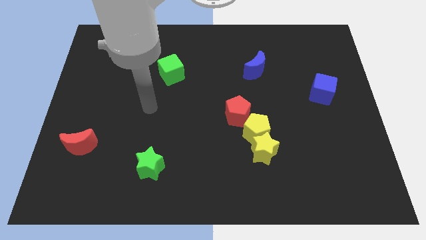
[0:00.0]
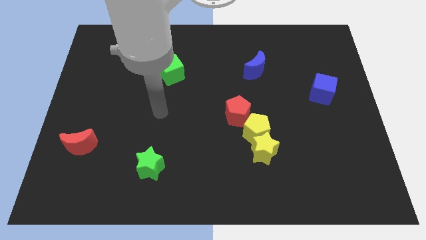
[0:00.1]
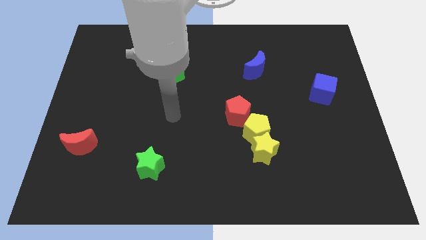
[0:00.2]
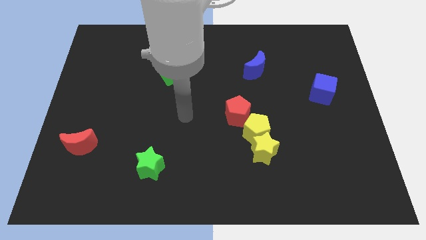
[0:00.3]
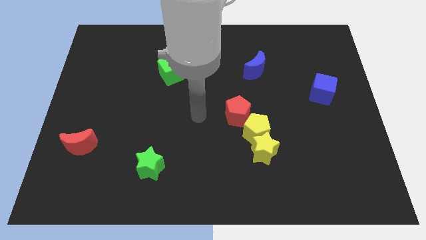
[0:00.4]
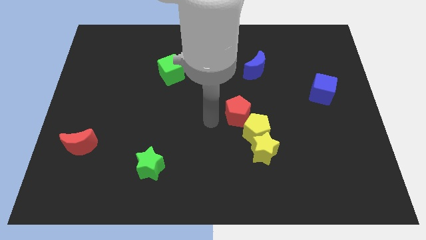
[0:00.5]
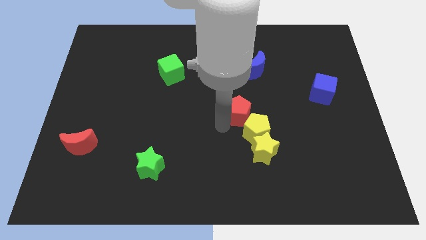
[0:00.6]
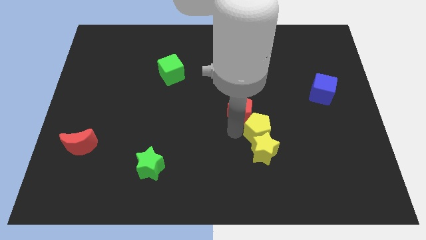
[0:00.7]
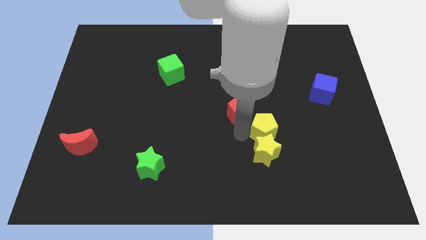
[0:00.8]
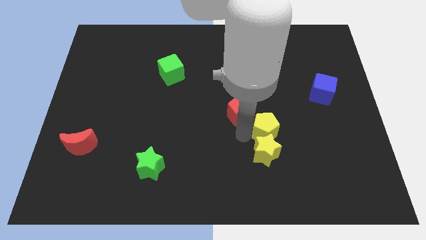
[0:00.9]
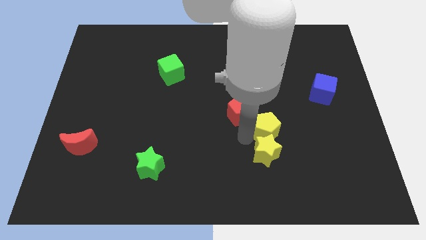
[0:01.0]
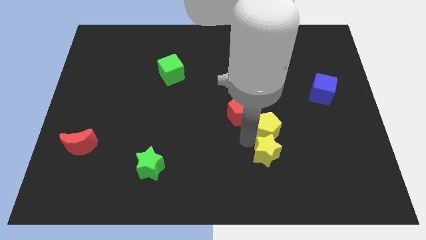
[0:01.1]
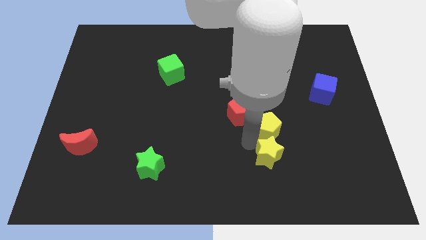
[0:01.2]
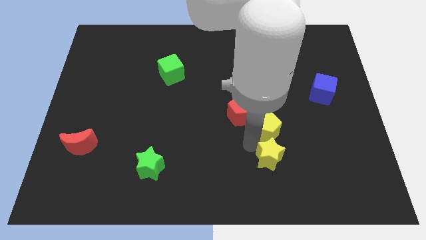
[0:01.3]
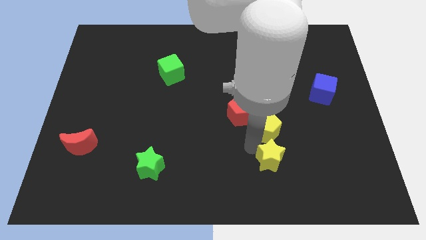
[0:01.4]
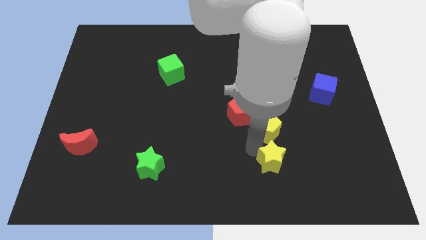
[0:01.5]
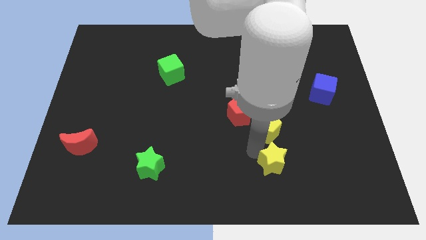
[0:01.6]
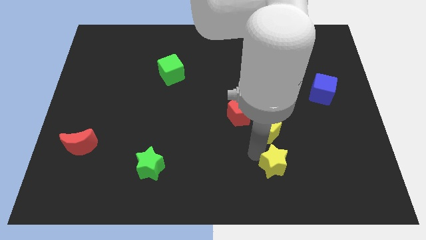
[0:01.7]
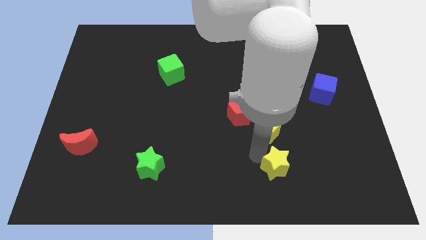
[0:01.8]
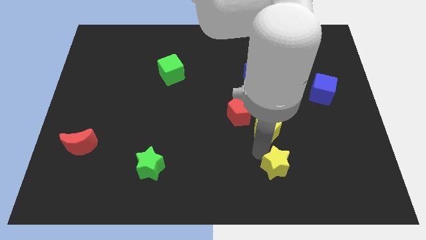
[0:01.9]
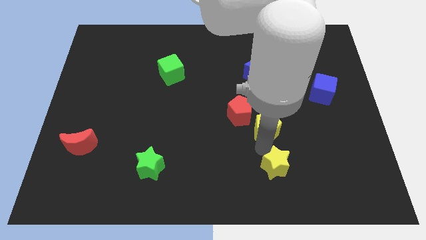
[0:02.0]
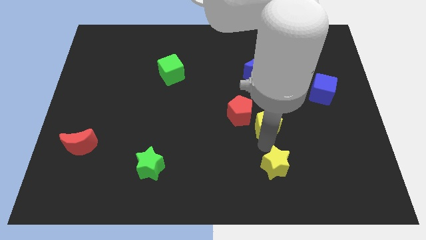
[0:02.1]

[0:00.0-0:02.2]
separate the yellow star from the yellow pentagon

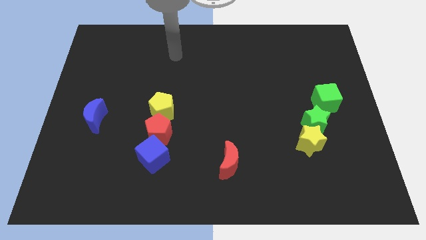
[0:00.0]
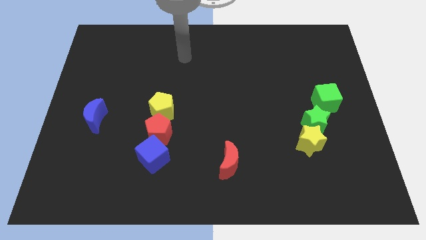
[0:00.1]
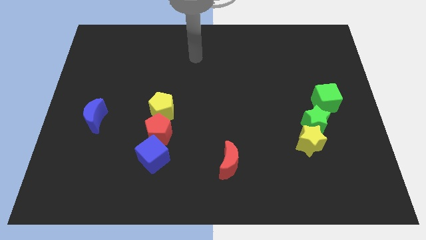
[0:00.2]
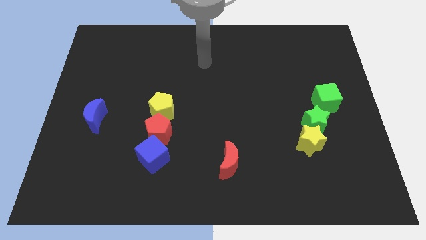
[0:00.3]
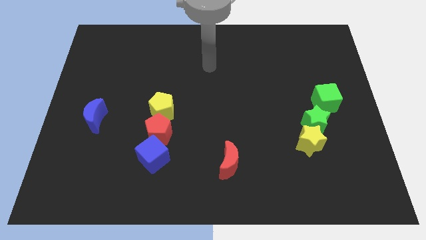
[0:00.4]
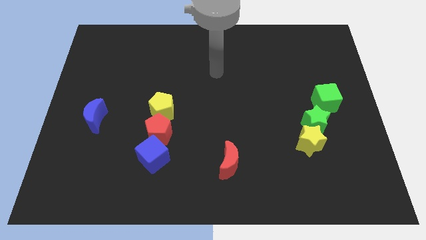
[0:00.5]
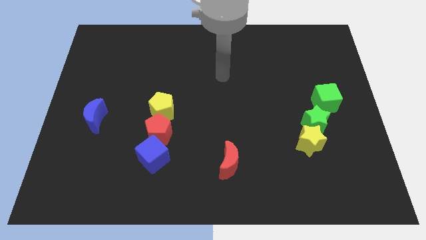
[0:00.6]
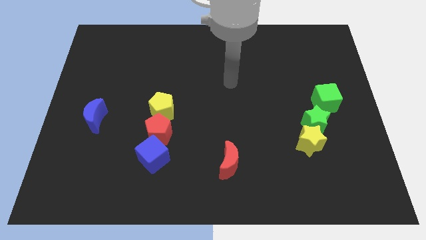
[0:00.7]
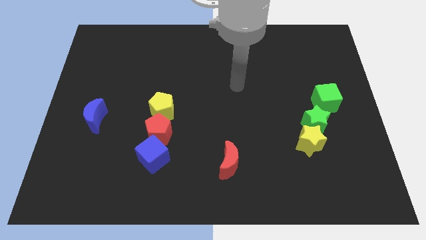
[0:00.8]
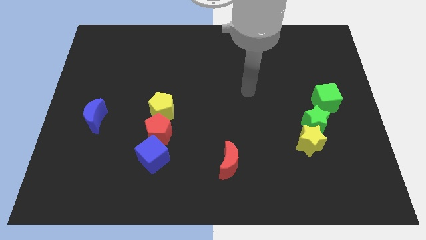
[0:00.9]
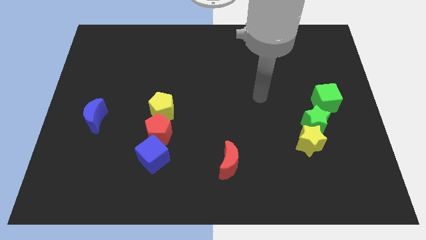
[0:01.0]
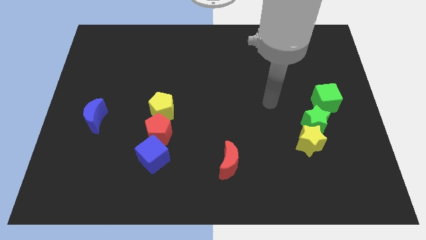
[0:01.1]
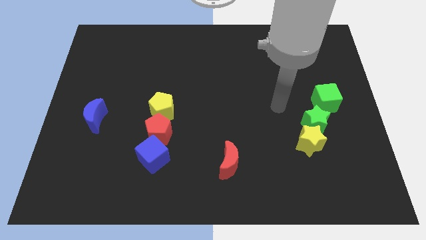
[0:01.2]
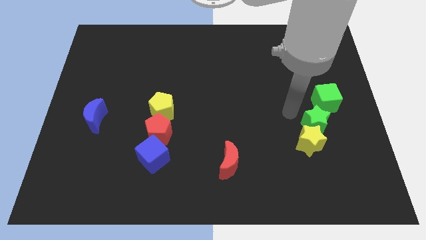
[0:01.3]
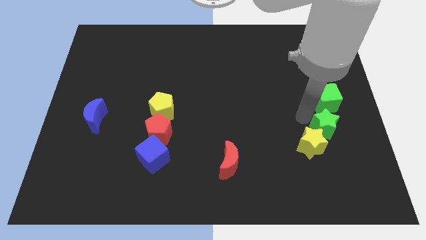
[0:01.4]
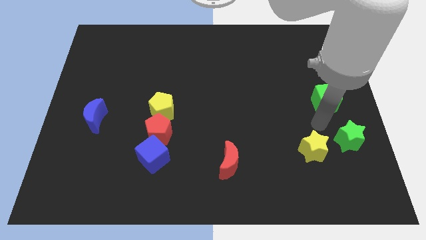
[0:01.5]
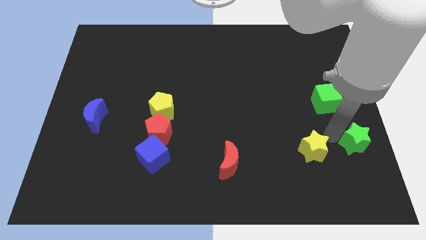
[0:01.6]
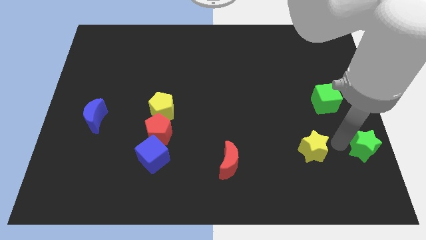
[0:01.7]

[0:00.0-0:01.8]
pull the yellow star apart from the green star

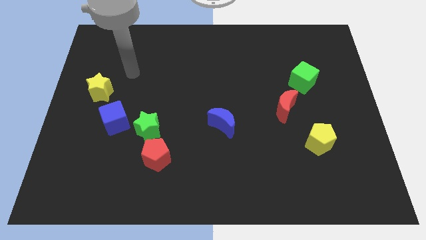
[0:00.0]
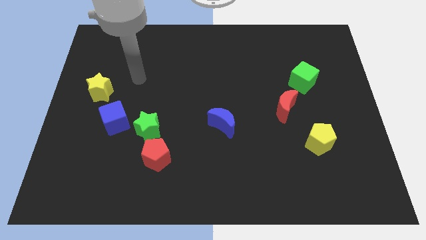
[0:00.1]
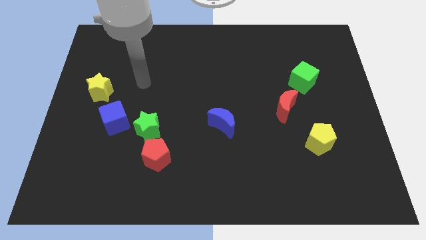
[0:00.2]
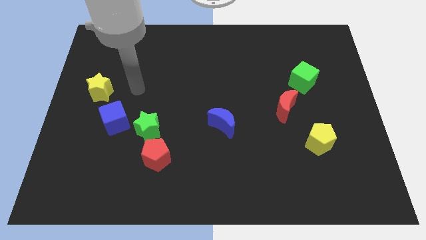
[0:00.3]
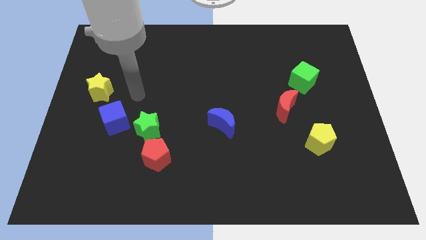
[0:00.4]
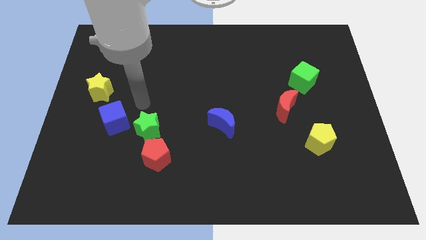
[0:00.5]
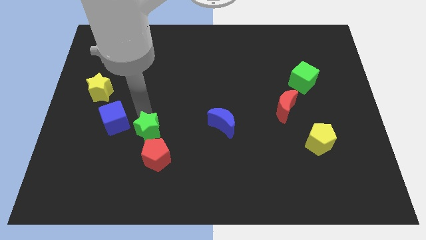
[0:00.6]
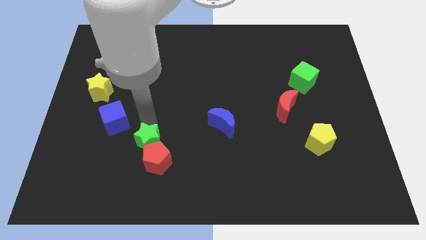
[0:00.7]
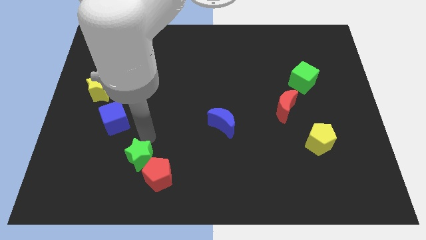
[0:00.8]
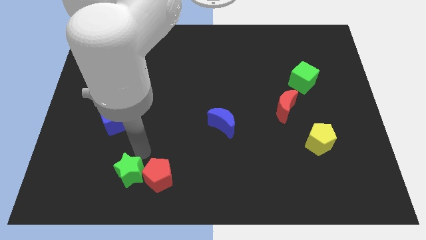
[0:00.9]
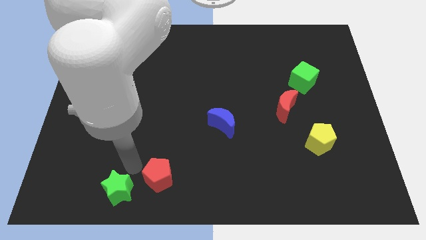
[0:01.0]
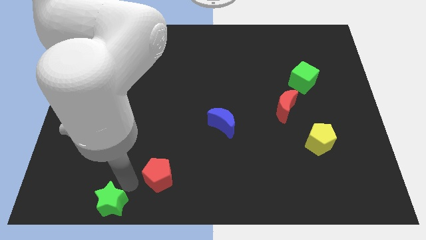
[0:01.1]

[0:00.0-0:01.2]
separate the red pentagon from the green star

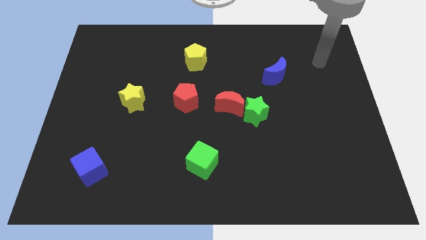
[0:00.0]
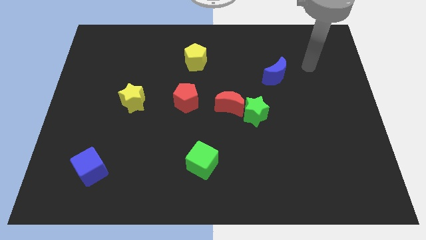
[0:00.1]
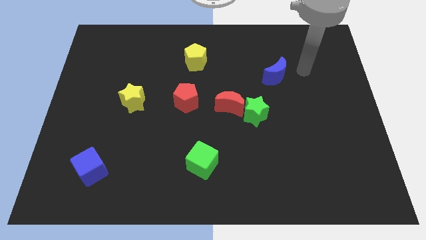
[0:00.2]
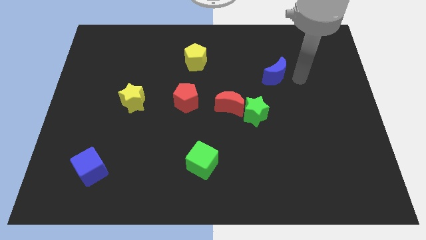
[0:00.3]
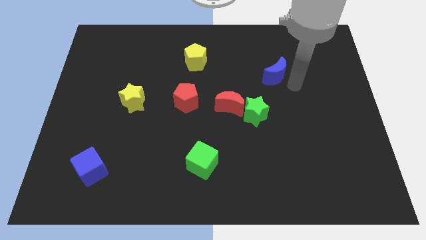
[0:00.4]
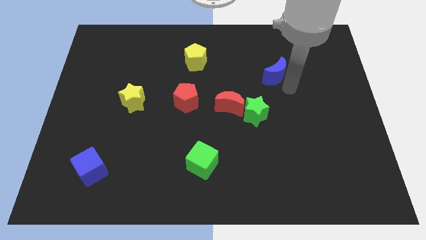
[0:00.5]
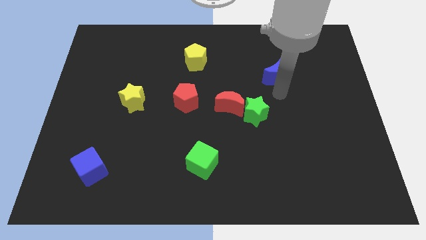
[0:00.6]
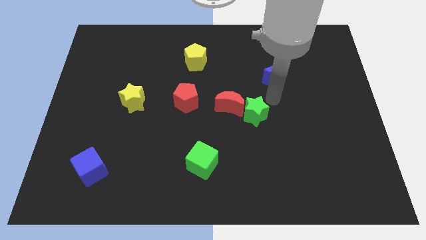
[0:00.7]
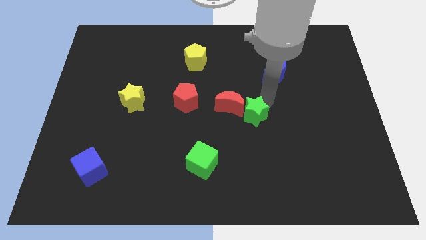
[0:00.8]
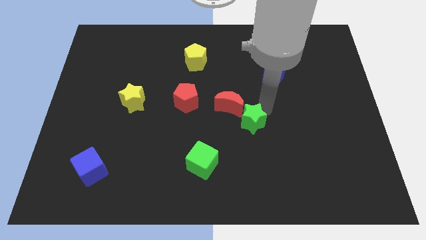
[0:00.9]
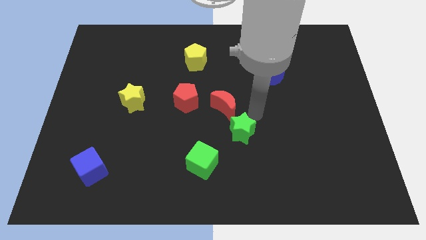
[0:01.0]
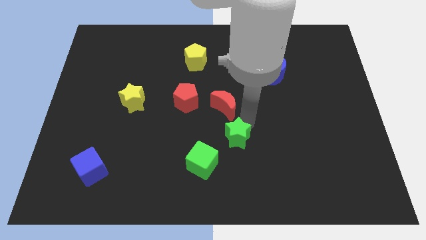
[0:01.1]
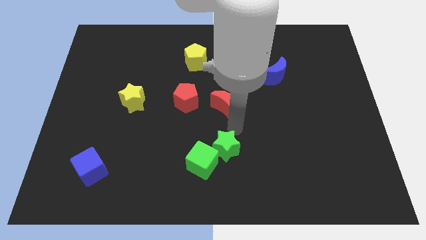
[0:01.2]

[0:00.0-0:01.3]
move the red moon away from the green star

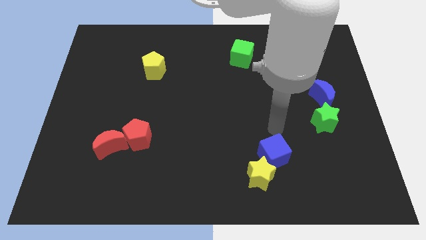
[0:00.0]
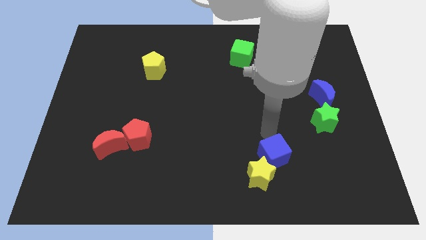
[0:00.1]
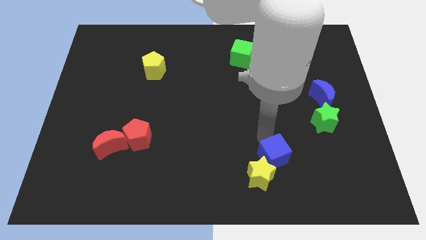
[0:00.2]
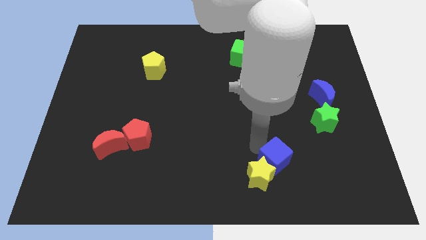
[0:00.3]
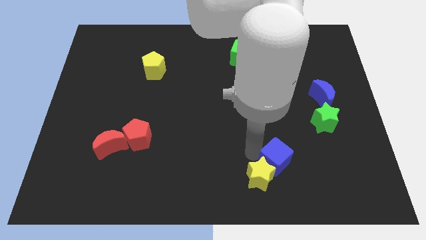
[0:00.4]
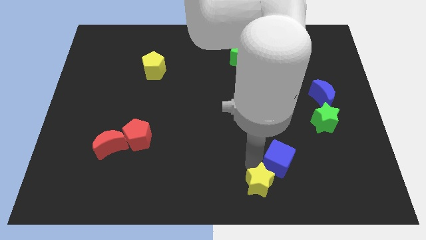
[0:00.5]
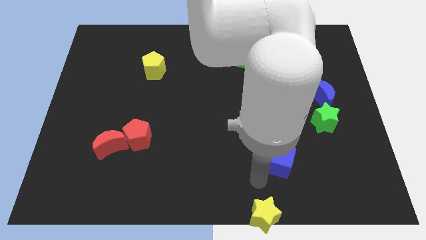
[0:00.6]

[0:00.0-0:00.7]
separate the blue cube from the yellow star

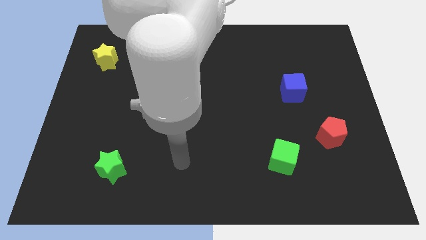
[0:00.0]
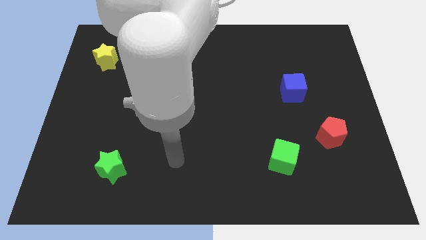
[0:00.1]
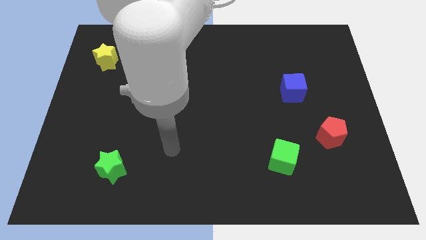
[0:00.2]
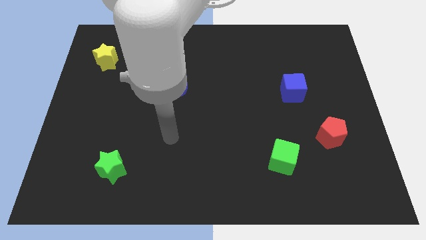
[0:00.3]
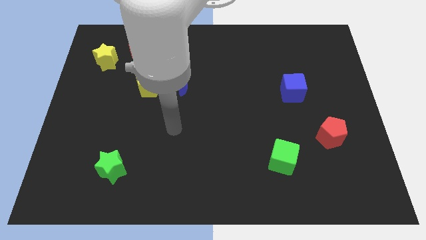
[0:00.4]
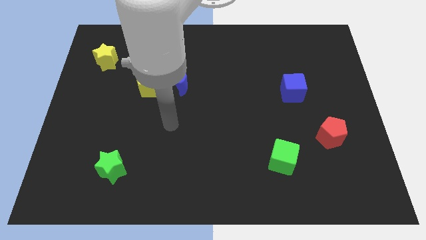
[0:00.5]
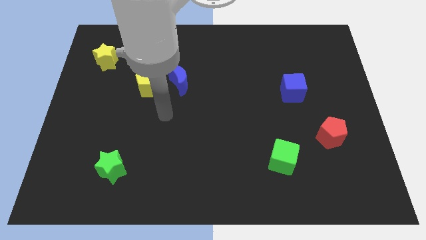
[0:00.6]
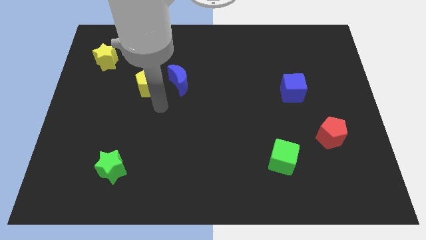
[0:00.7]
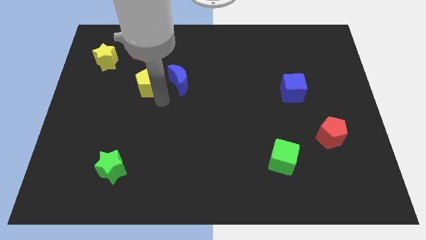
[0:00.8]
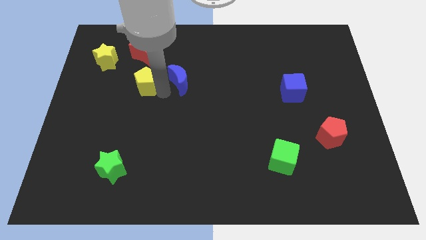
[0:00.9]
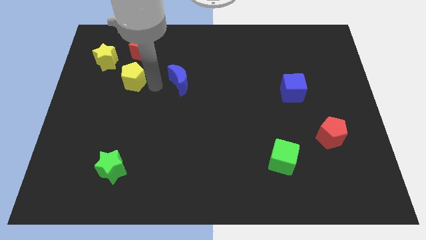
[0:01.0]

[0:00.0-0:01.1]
pull the blue moon apart from the yellow pentagon

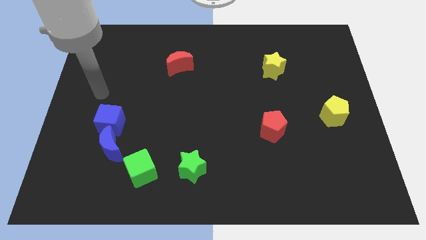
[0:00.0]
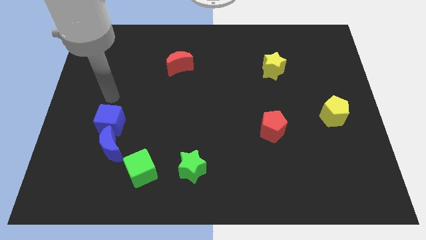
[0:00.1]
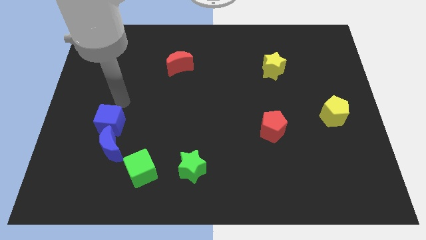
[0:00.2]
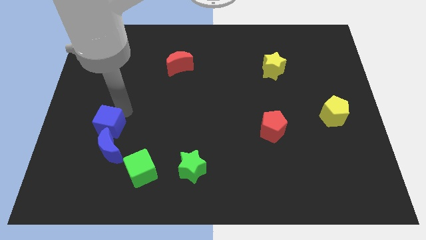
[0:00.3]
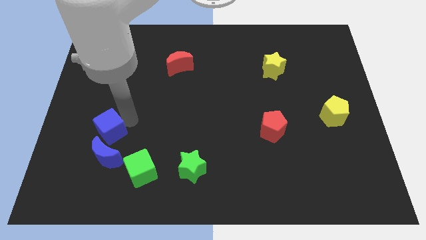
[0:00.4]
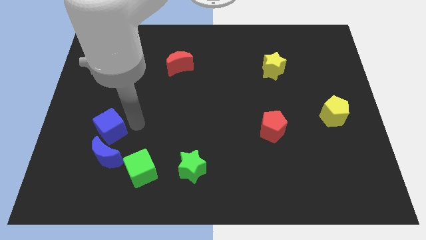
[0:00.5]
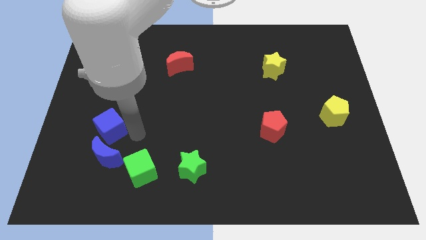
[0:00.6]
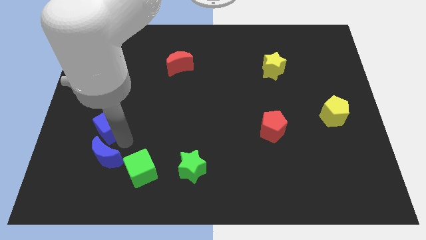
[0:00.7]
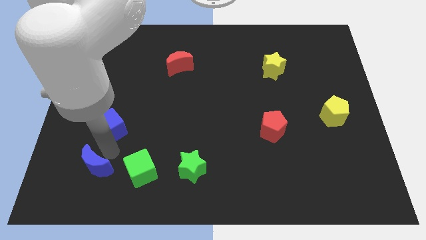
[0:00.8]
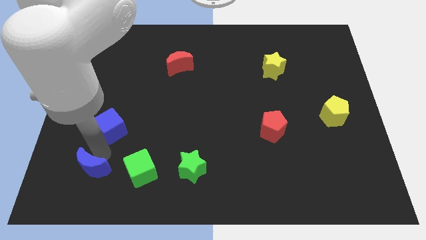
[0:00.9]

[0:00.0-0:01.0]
pull the blue cube apart from the blue moon
